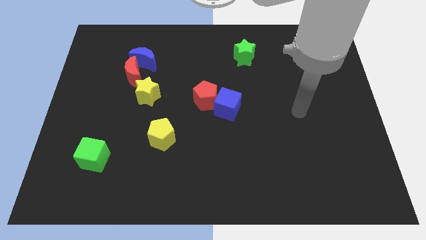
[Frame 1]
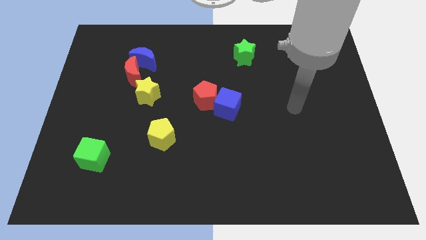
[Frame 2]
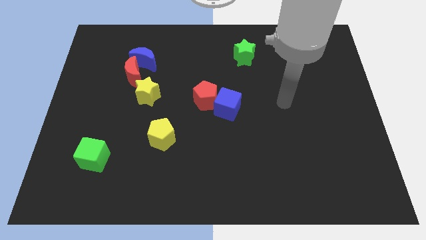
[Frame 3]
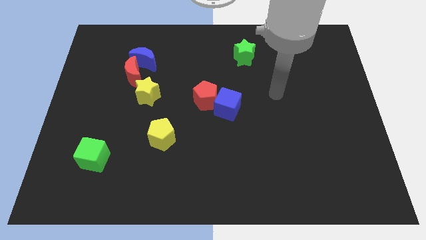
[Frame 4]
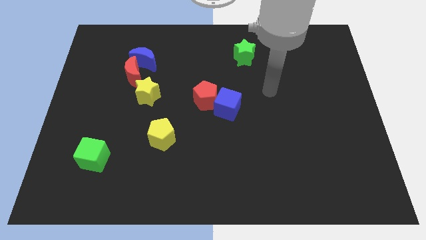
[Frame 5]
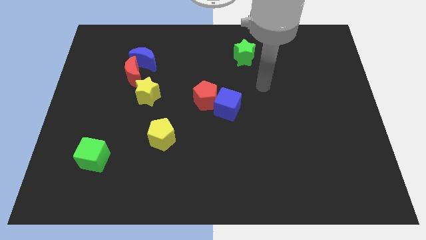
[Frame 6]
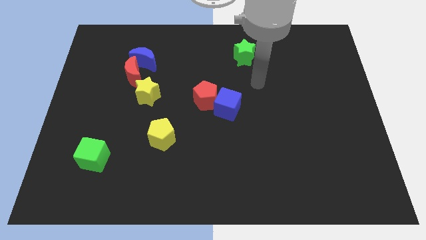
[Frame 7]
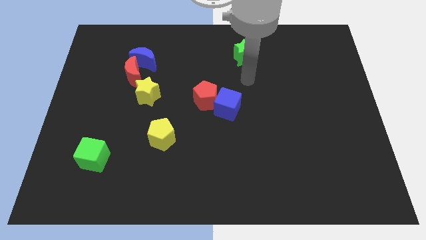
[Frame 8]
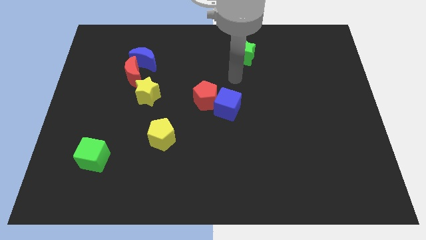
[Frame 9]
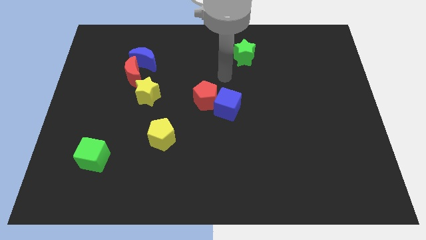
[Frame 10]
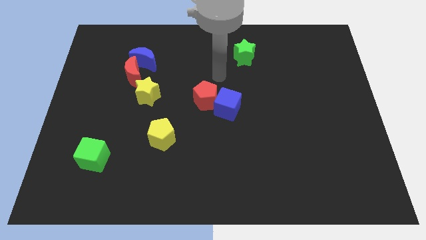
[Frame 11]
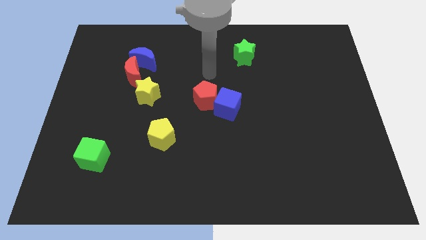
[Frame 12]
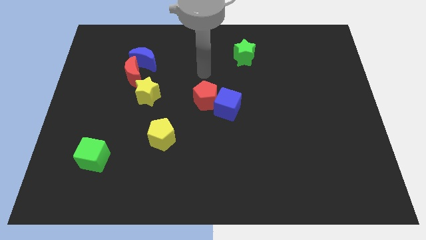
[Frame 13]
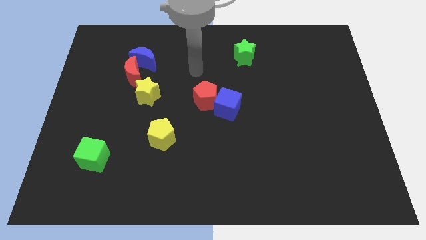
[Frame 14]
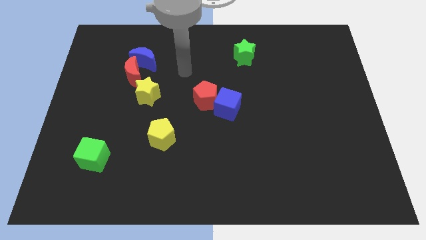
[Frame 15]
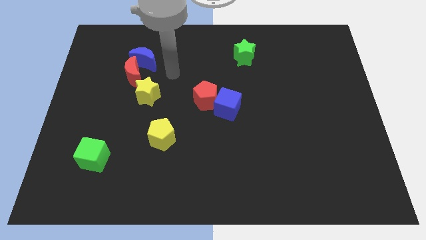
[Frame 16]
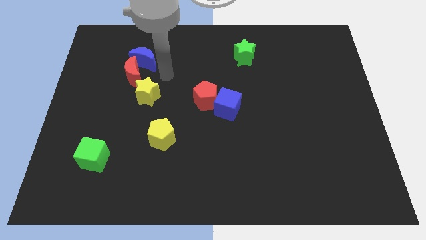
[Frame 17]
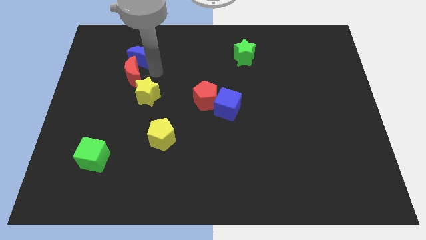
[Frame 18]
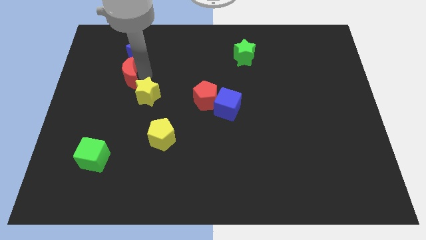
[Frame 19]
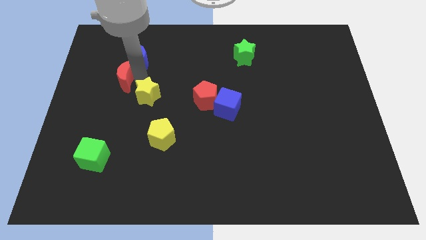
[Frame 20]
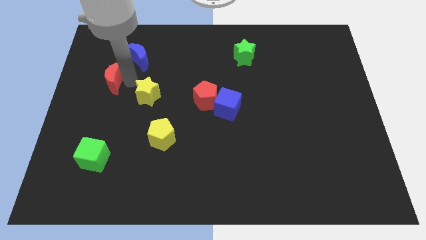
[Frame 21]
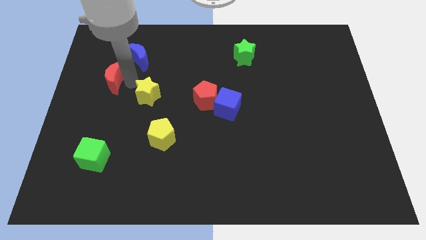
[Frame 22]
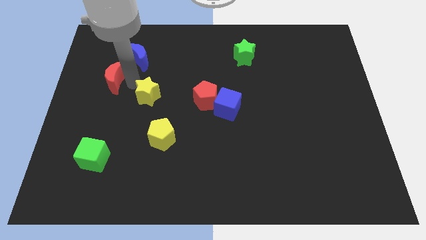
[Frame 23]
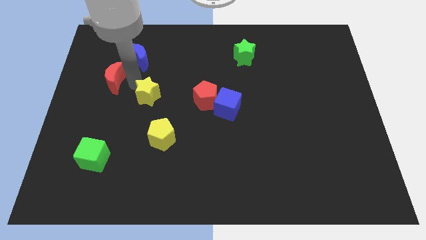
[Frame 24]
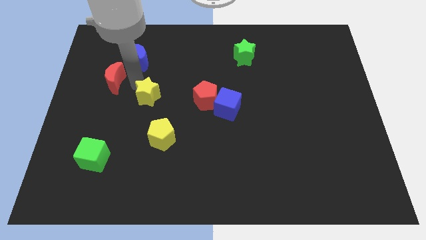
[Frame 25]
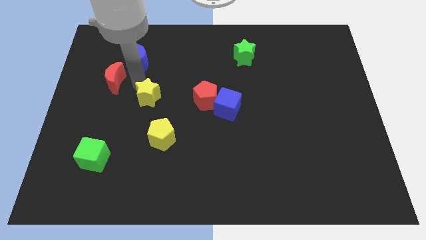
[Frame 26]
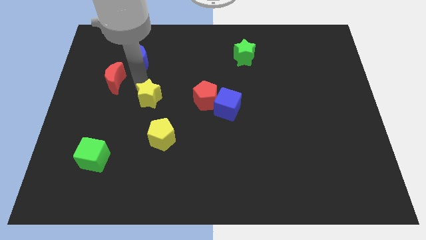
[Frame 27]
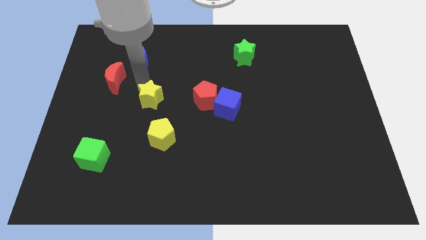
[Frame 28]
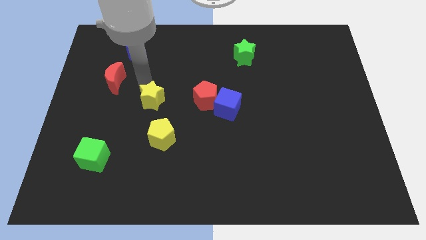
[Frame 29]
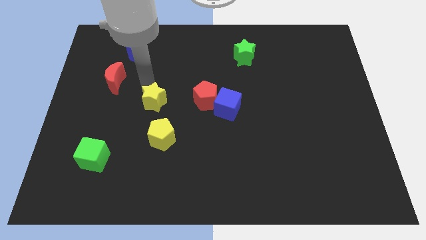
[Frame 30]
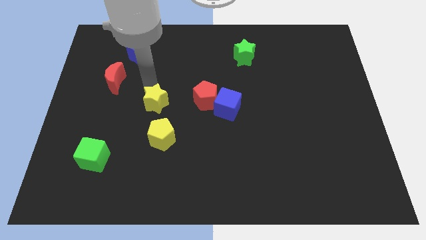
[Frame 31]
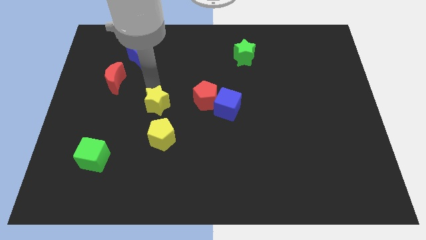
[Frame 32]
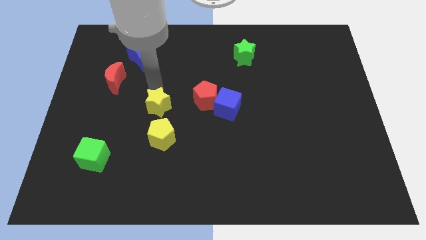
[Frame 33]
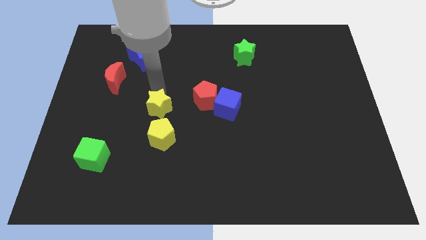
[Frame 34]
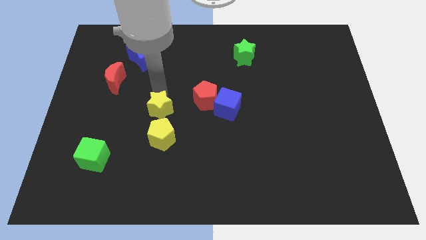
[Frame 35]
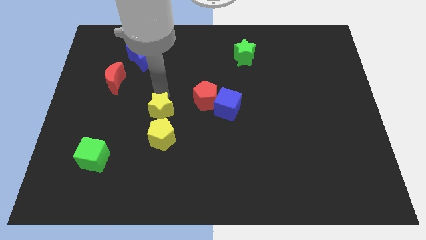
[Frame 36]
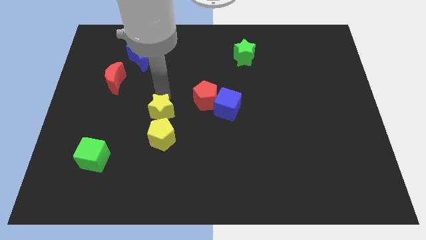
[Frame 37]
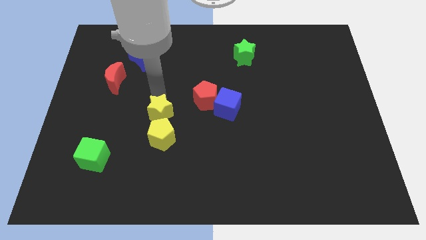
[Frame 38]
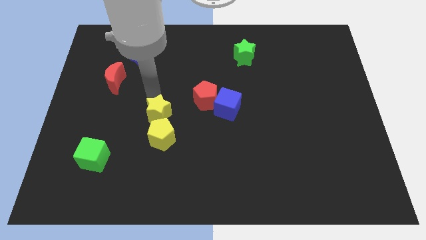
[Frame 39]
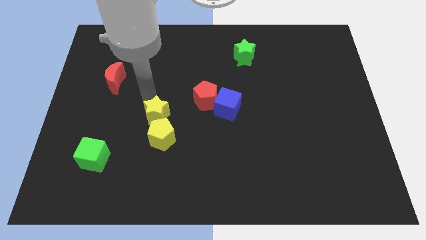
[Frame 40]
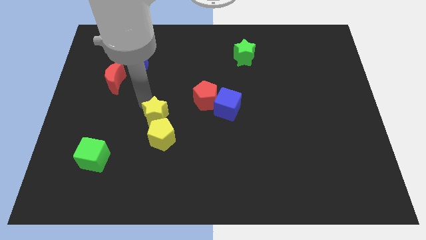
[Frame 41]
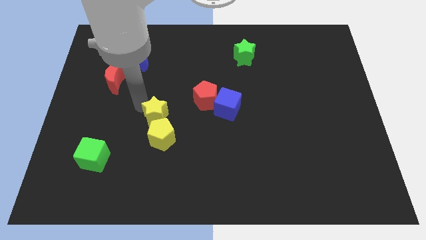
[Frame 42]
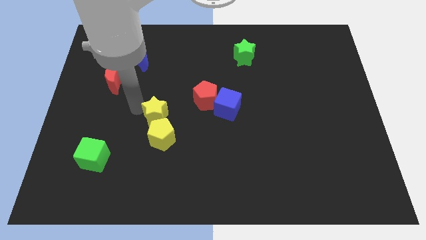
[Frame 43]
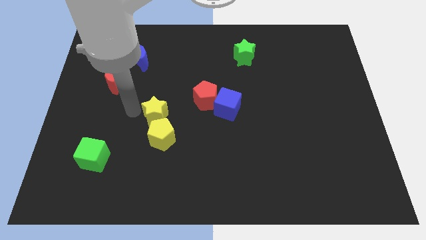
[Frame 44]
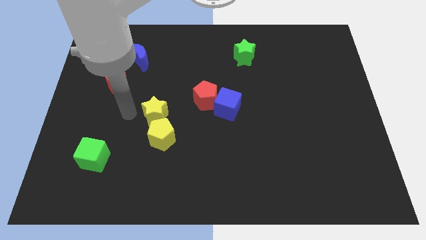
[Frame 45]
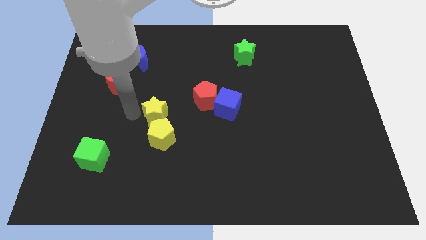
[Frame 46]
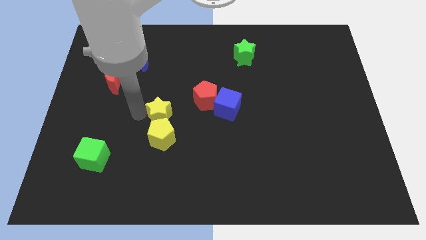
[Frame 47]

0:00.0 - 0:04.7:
slide the yellow star a little down and right diagonally

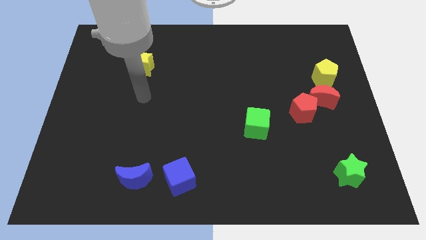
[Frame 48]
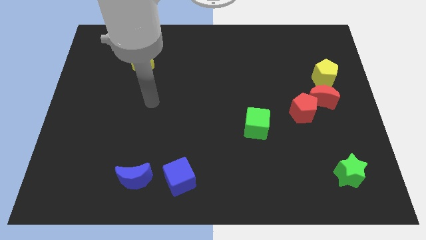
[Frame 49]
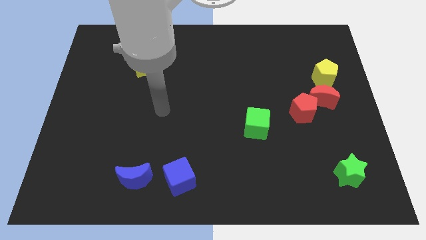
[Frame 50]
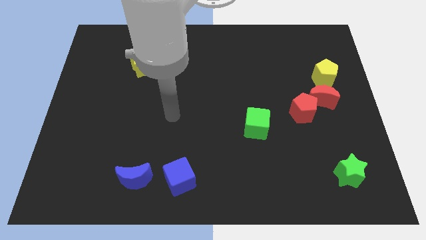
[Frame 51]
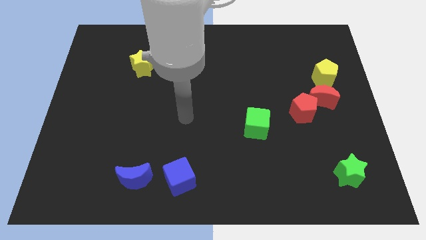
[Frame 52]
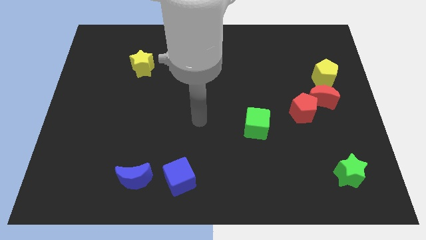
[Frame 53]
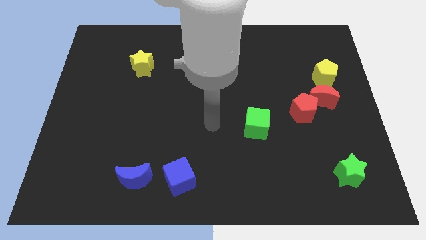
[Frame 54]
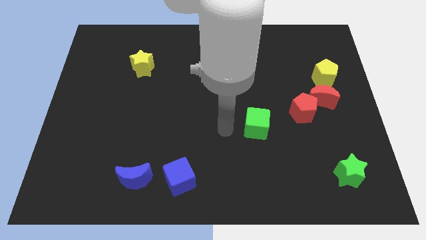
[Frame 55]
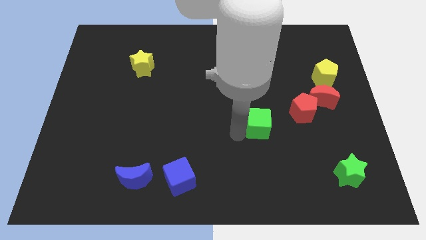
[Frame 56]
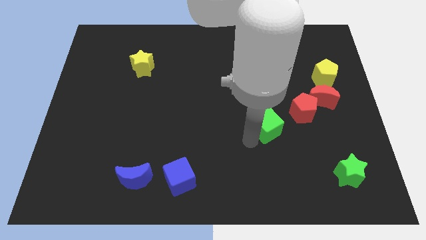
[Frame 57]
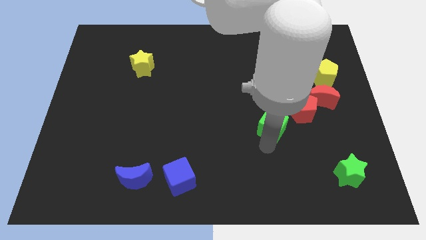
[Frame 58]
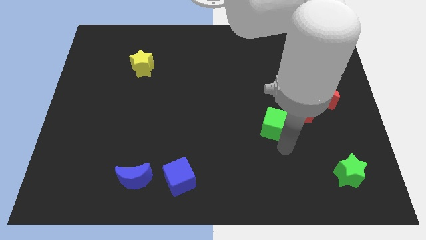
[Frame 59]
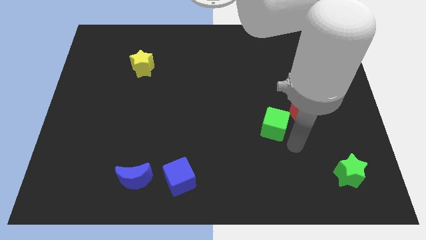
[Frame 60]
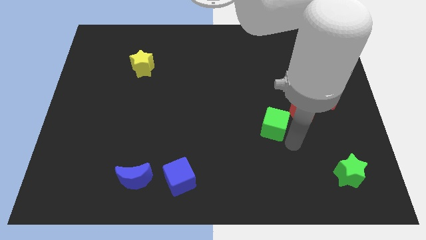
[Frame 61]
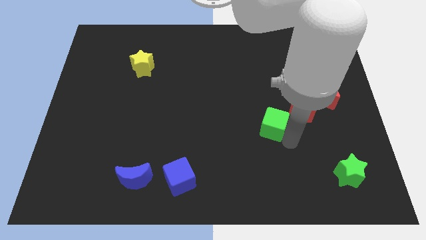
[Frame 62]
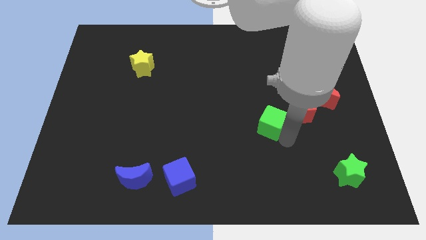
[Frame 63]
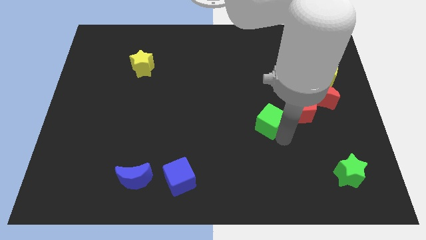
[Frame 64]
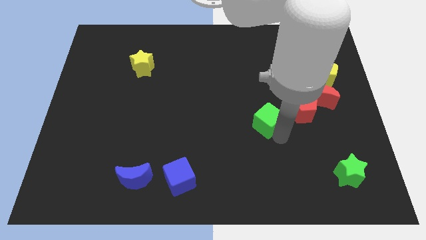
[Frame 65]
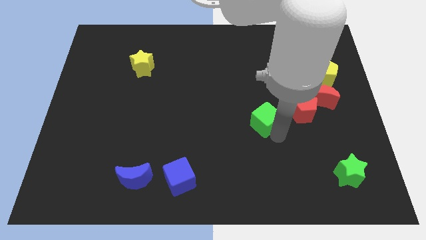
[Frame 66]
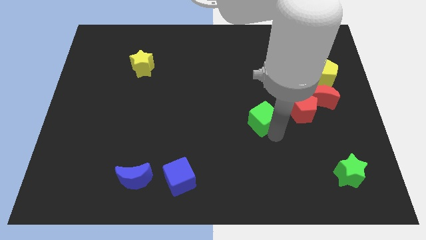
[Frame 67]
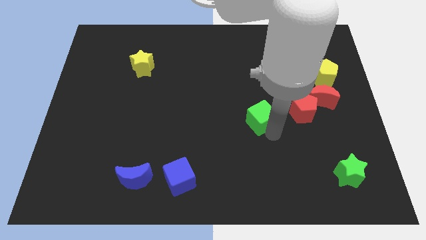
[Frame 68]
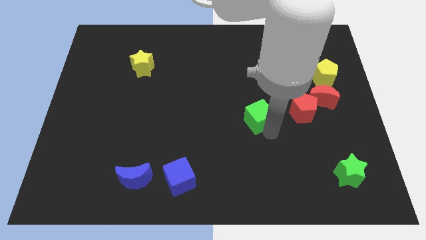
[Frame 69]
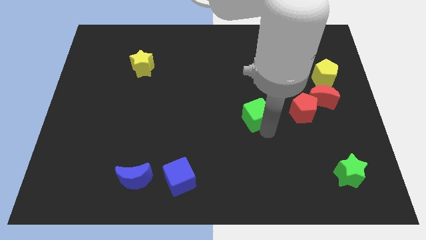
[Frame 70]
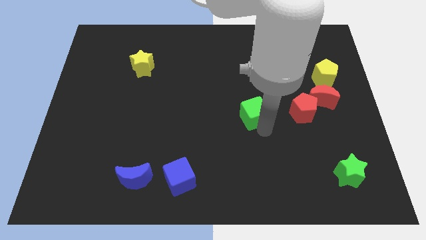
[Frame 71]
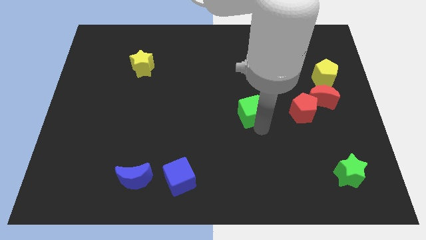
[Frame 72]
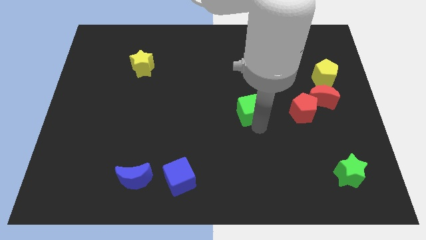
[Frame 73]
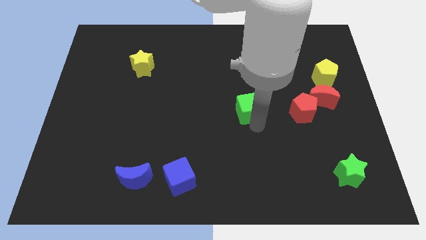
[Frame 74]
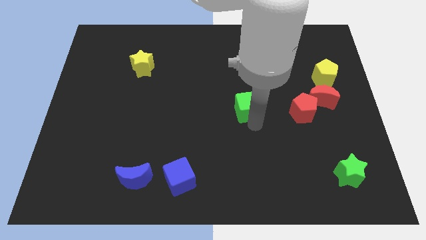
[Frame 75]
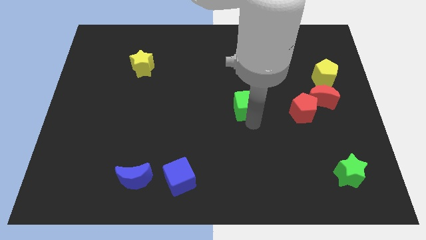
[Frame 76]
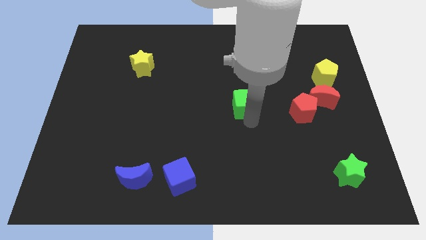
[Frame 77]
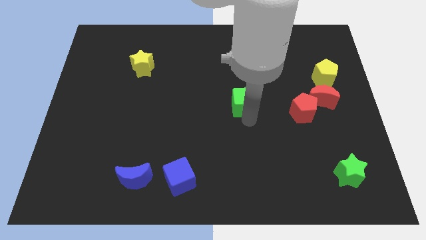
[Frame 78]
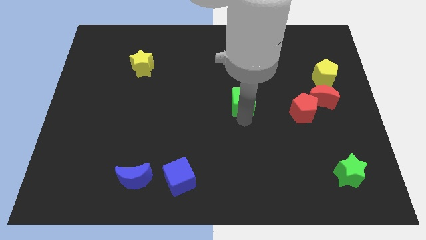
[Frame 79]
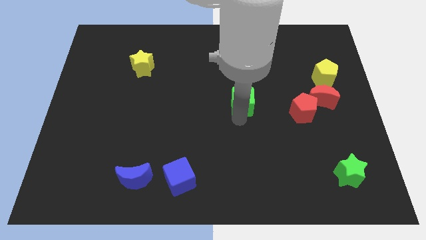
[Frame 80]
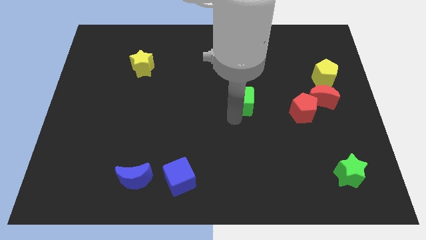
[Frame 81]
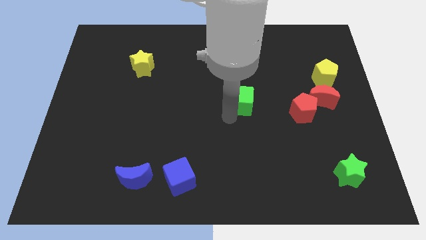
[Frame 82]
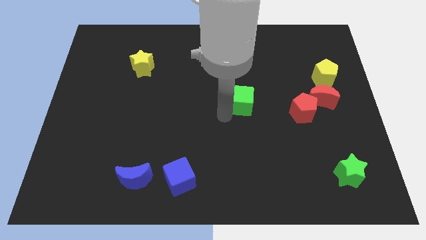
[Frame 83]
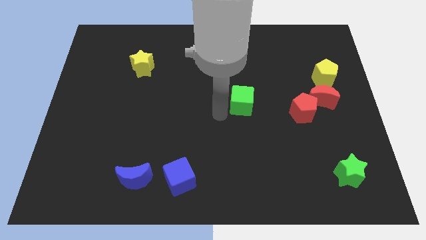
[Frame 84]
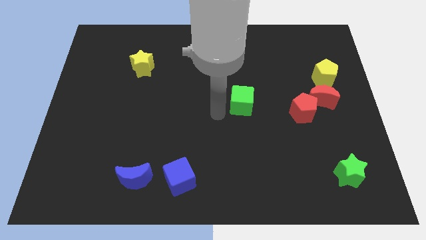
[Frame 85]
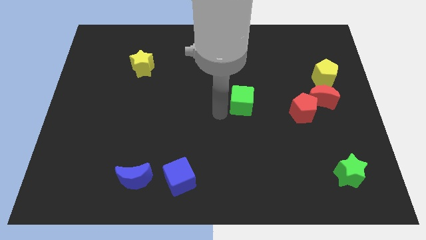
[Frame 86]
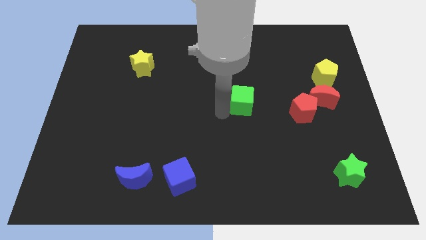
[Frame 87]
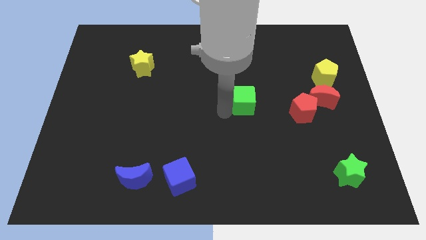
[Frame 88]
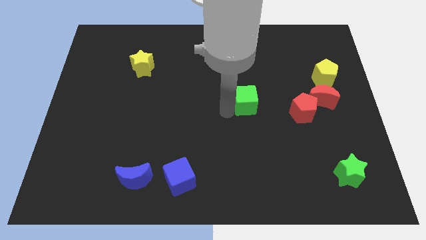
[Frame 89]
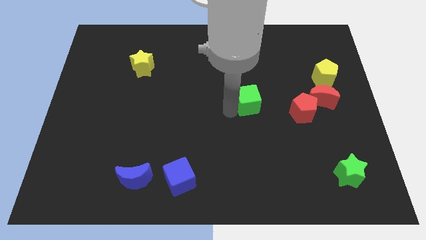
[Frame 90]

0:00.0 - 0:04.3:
slightly move the green cube up
